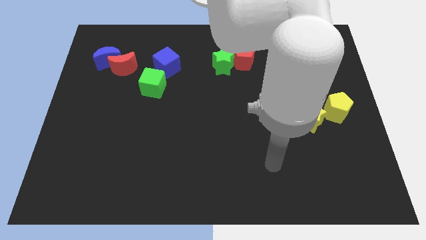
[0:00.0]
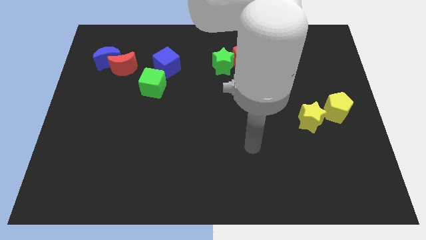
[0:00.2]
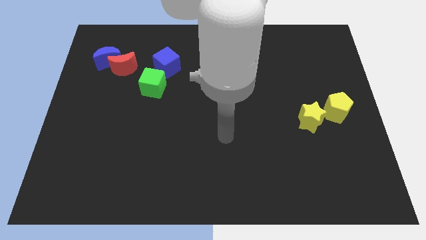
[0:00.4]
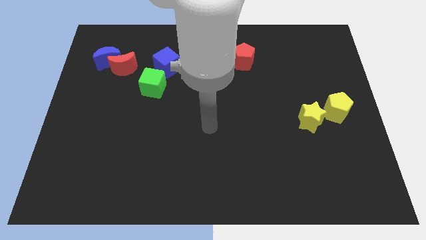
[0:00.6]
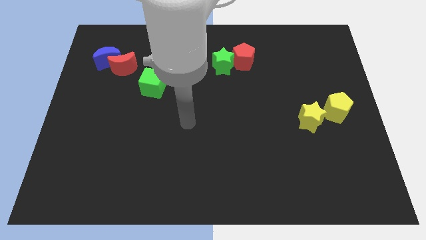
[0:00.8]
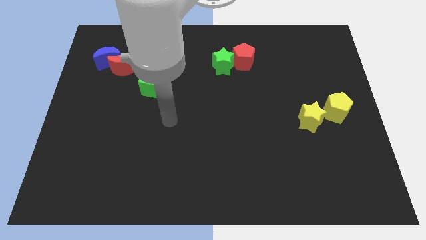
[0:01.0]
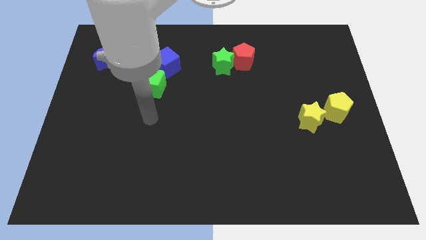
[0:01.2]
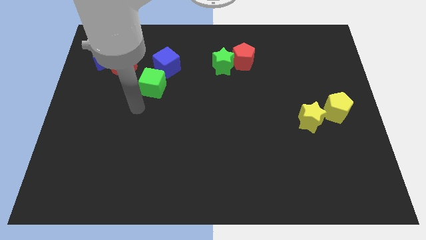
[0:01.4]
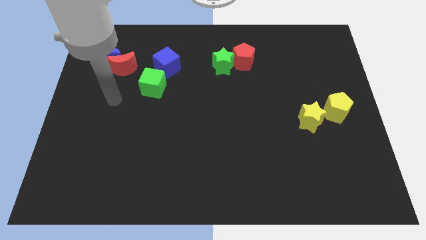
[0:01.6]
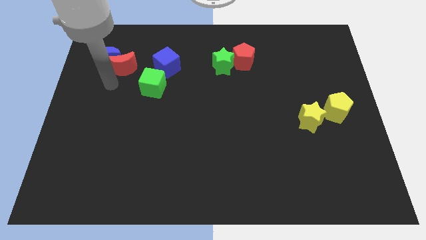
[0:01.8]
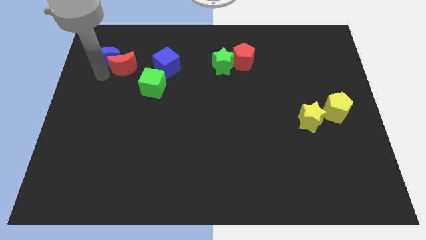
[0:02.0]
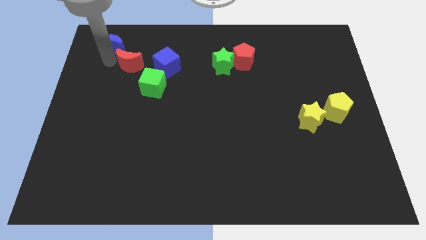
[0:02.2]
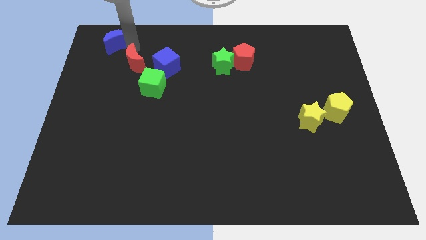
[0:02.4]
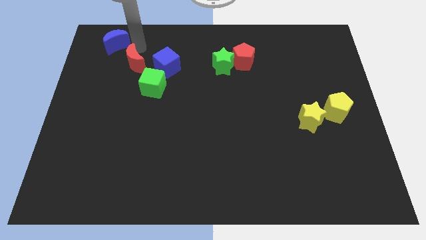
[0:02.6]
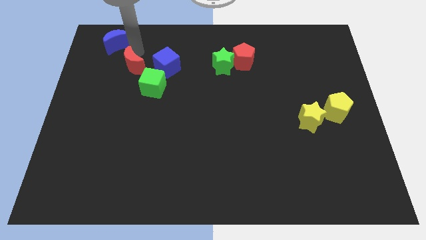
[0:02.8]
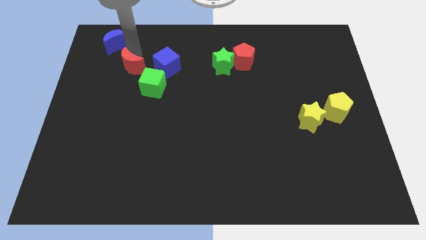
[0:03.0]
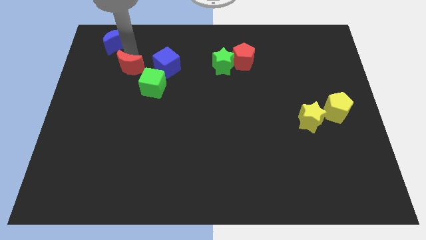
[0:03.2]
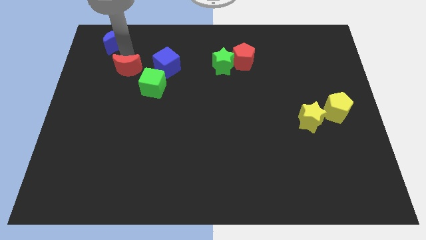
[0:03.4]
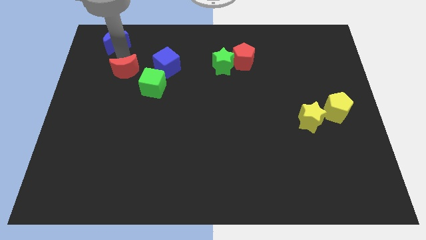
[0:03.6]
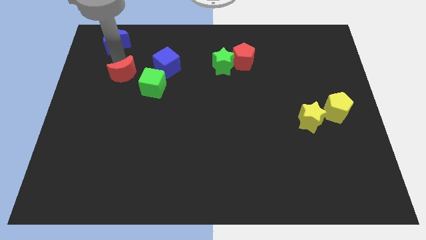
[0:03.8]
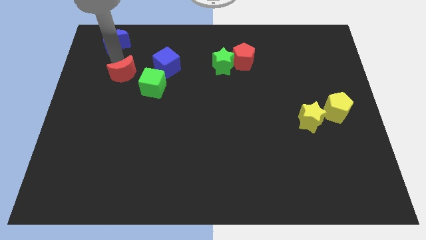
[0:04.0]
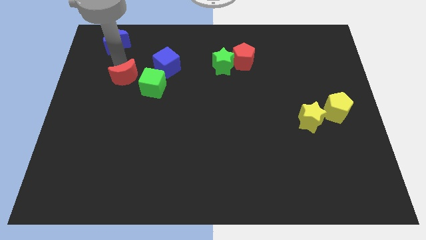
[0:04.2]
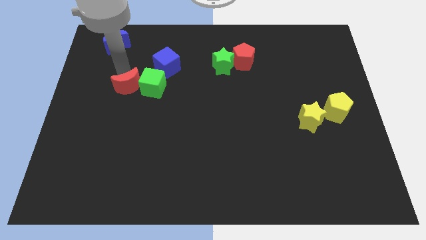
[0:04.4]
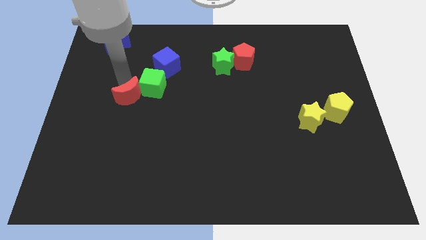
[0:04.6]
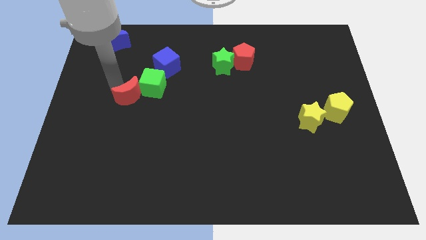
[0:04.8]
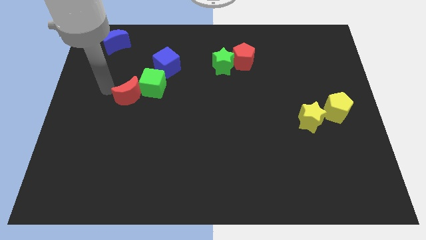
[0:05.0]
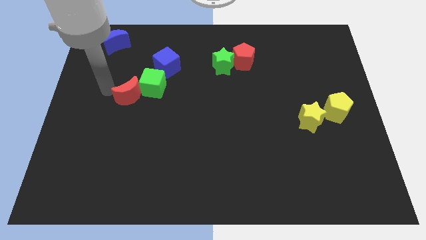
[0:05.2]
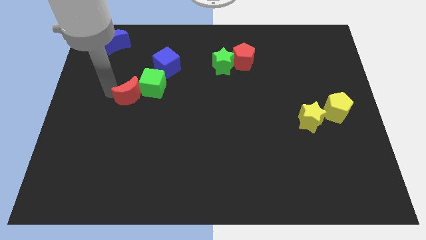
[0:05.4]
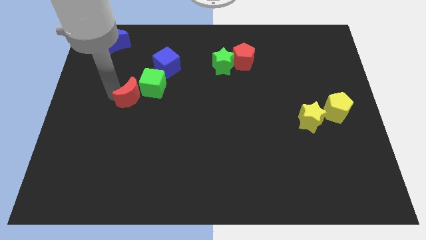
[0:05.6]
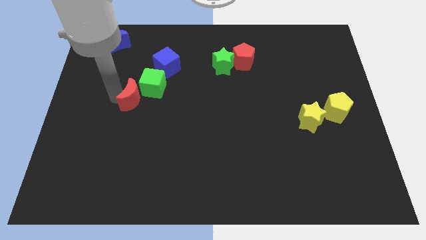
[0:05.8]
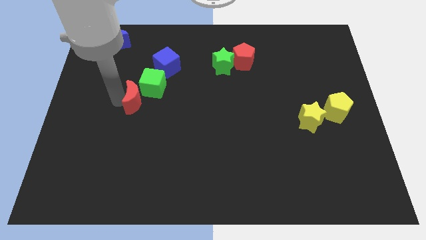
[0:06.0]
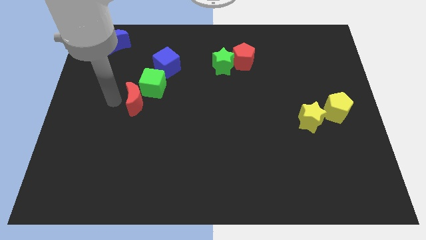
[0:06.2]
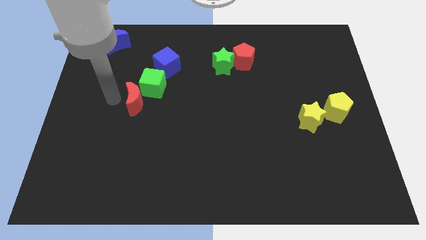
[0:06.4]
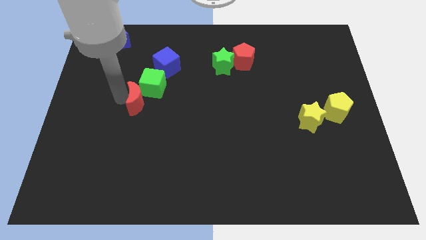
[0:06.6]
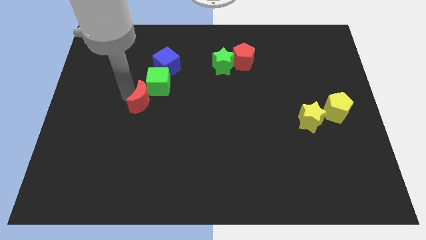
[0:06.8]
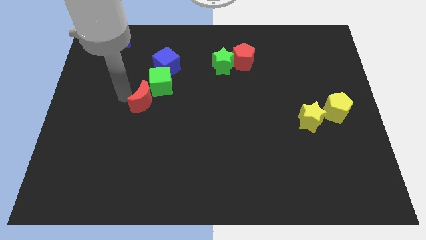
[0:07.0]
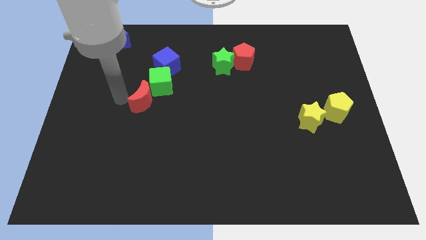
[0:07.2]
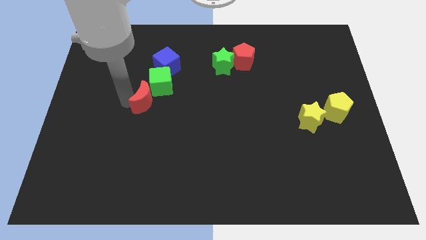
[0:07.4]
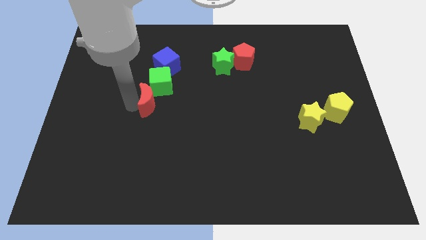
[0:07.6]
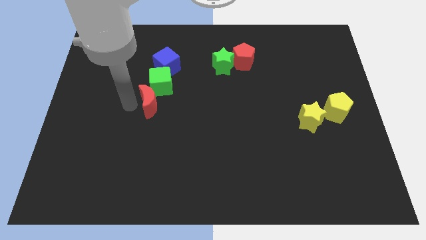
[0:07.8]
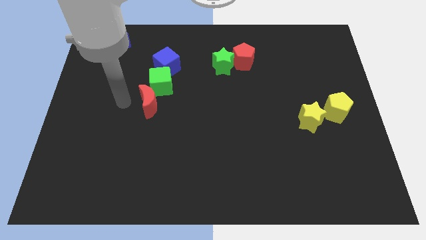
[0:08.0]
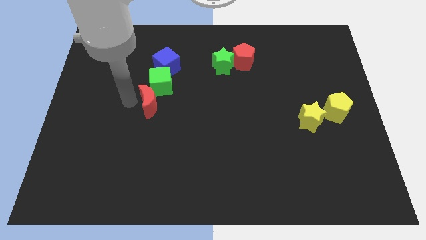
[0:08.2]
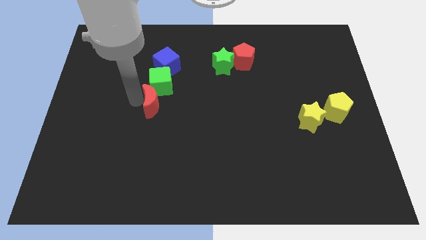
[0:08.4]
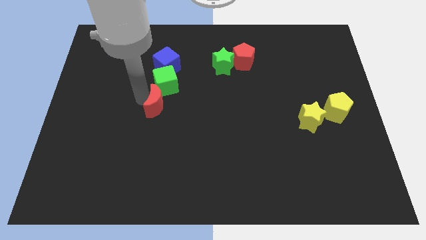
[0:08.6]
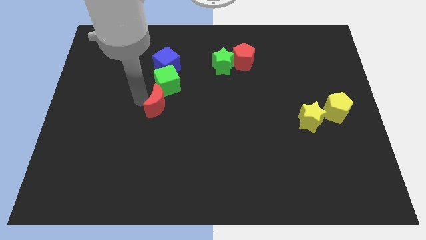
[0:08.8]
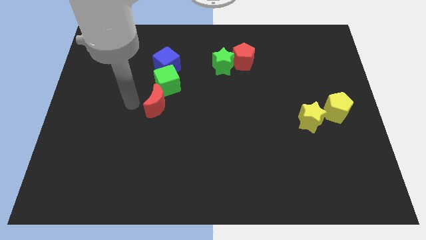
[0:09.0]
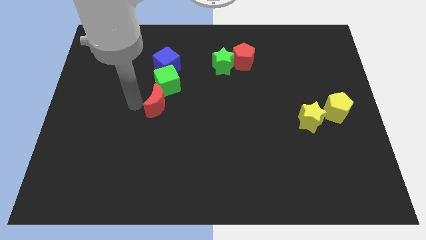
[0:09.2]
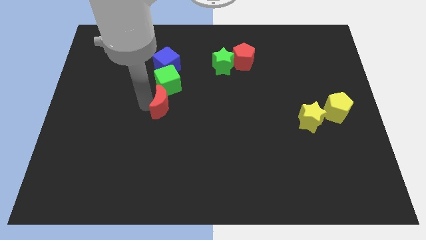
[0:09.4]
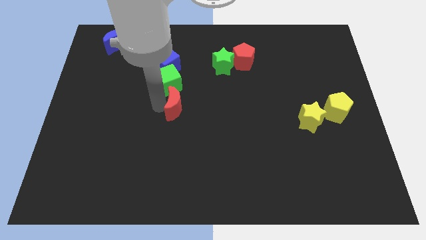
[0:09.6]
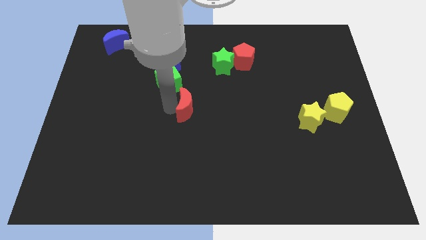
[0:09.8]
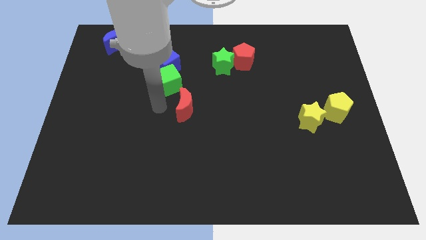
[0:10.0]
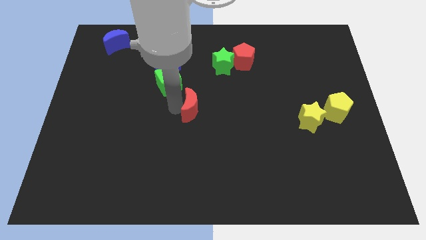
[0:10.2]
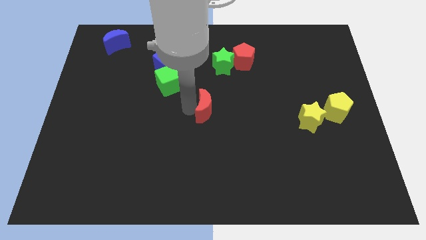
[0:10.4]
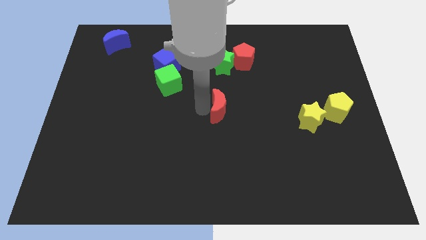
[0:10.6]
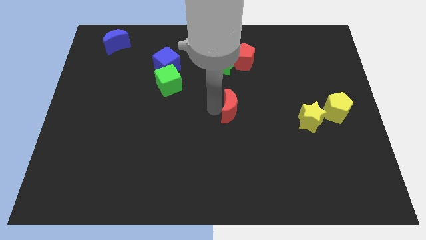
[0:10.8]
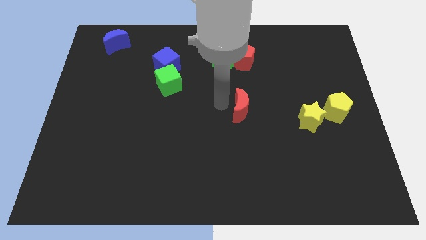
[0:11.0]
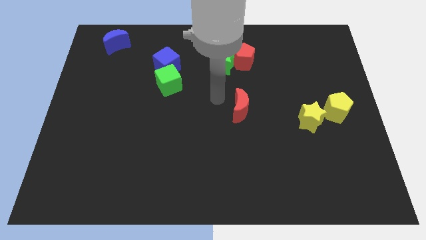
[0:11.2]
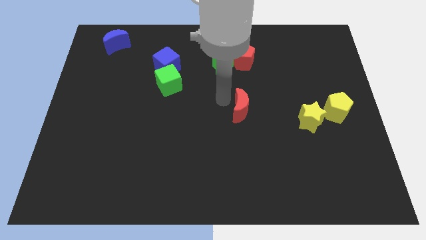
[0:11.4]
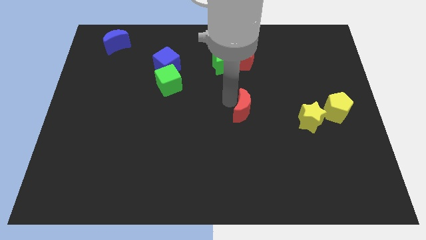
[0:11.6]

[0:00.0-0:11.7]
move the red moon just left of the yellow star

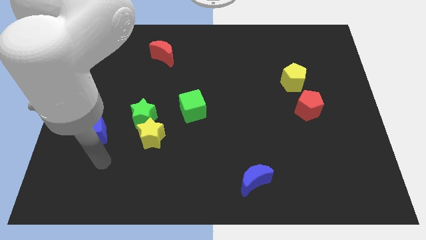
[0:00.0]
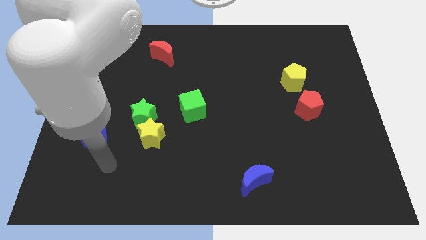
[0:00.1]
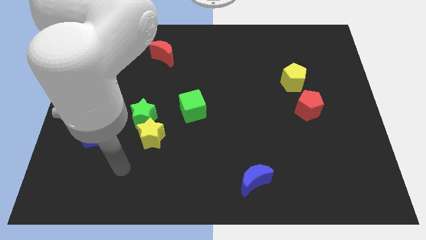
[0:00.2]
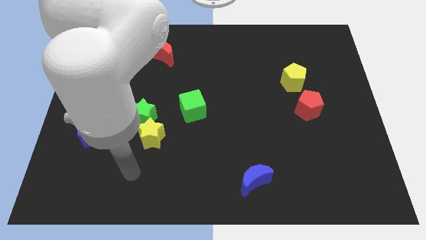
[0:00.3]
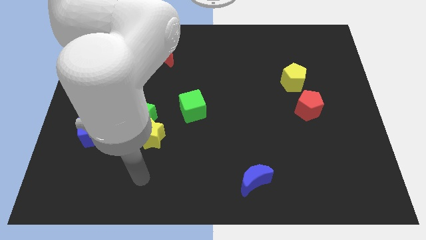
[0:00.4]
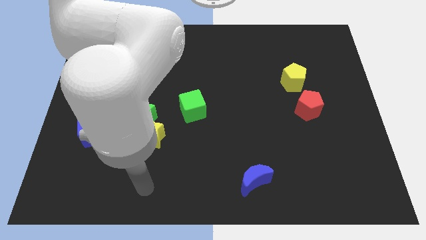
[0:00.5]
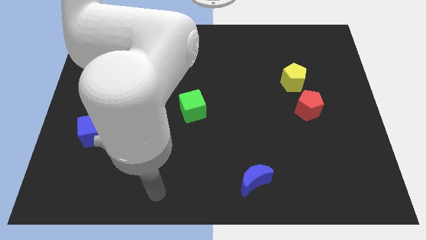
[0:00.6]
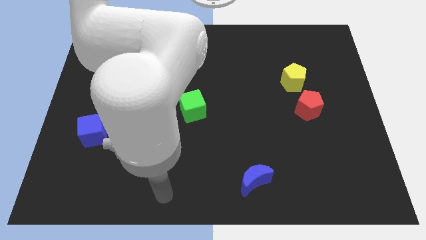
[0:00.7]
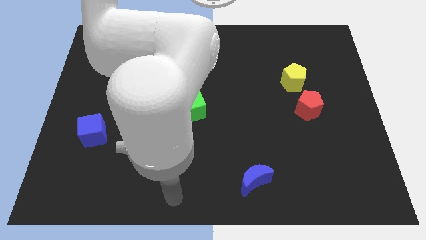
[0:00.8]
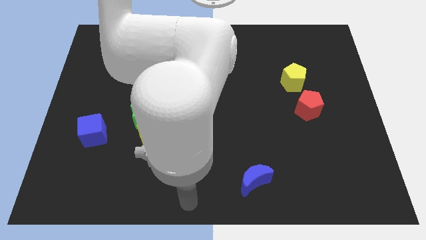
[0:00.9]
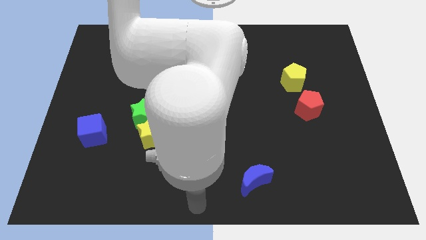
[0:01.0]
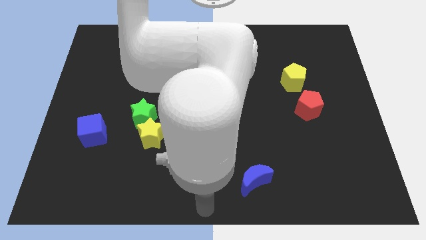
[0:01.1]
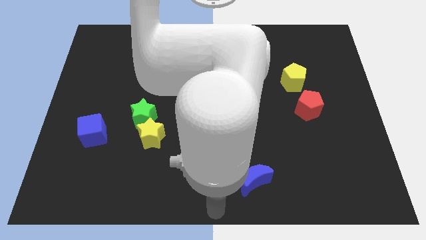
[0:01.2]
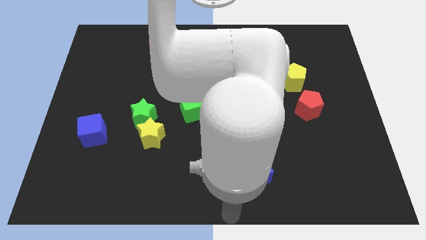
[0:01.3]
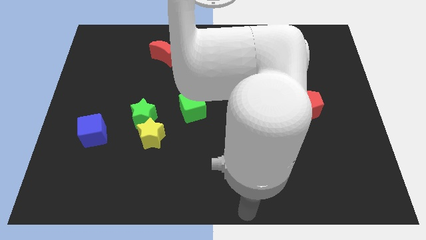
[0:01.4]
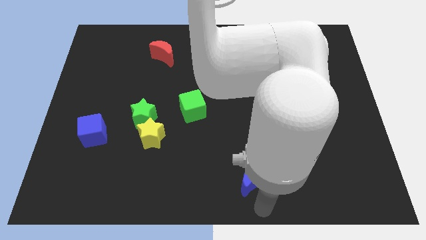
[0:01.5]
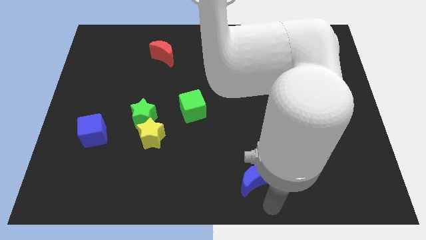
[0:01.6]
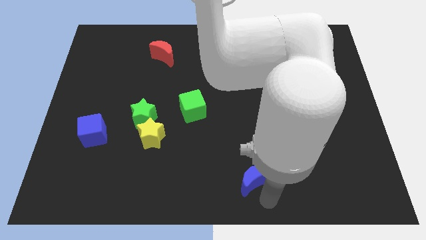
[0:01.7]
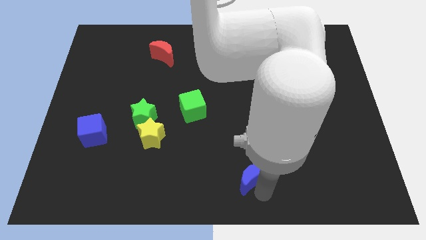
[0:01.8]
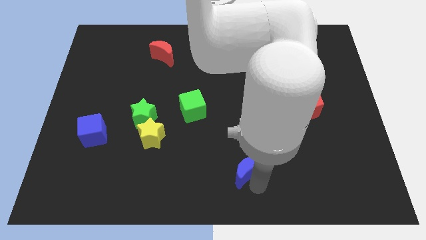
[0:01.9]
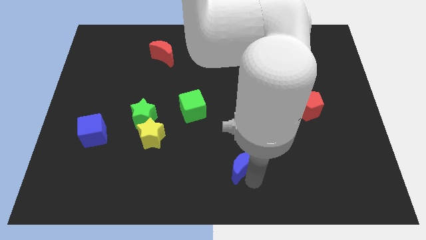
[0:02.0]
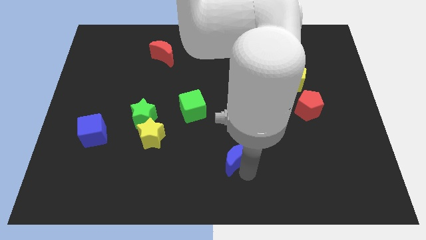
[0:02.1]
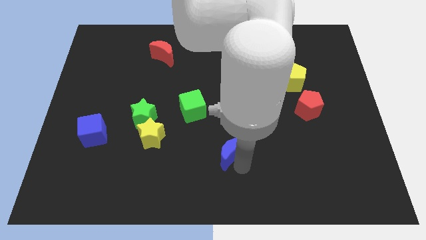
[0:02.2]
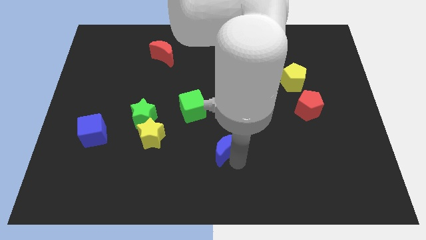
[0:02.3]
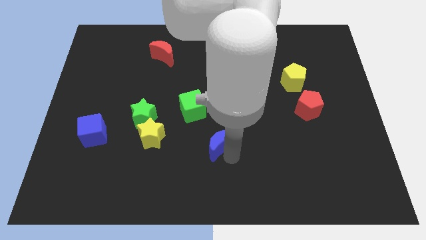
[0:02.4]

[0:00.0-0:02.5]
move the blue moon to the bottom right side of the green cube
